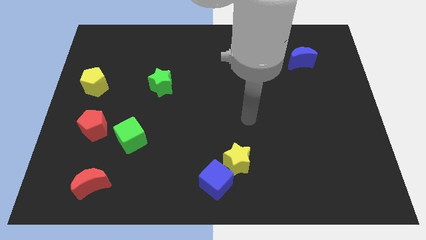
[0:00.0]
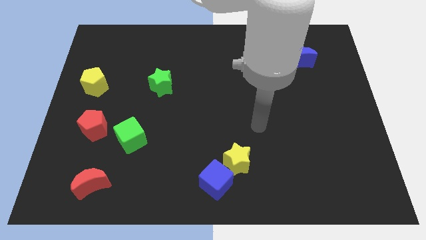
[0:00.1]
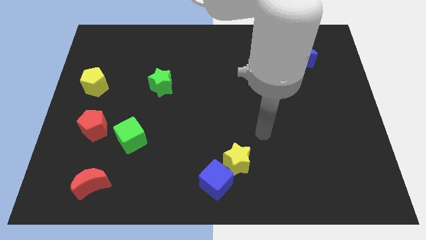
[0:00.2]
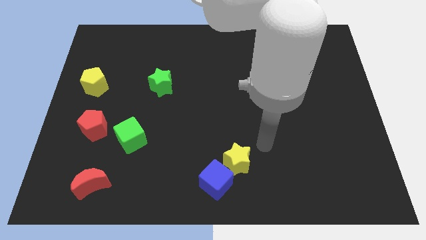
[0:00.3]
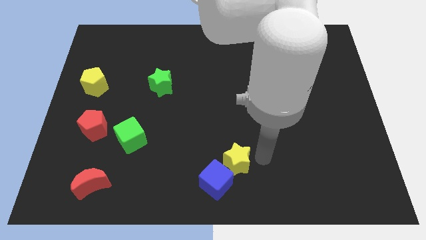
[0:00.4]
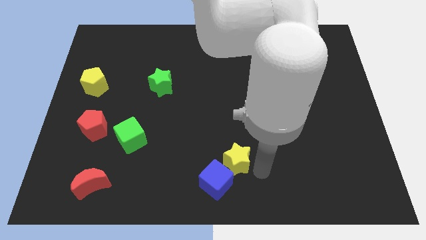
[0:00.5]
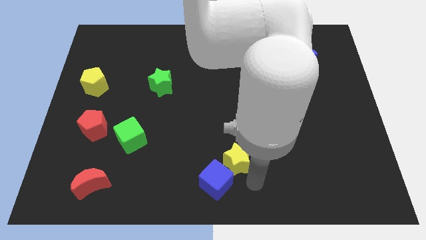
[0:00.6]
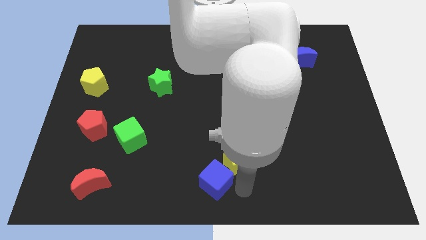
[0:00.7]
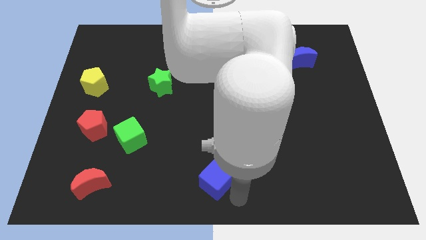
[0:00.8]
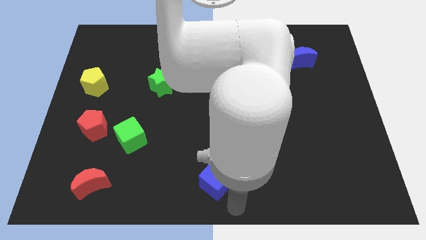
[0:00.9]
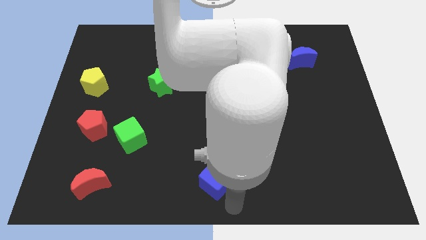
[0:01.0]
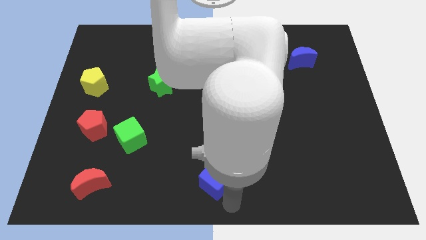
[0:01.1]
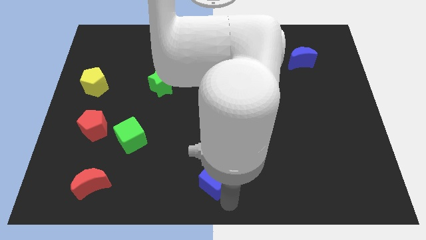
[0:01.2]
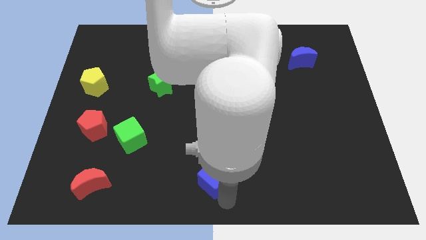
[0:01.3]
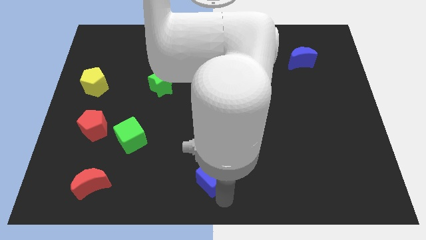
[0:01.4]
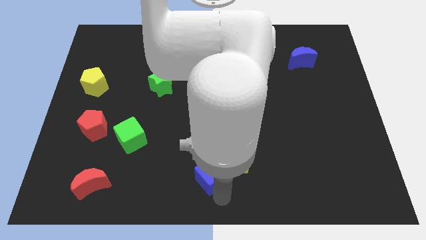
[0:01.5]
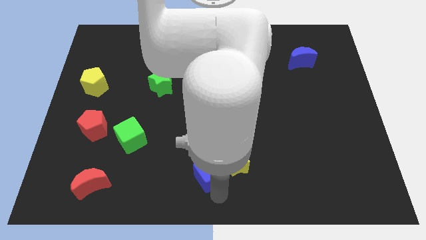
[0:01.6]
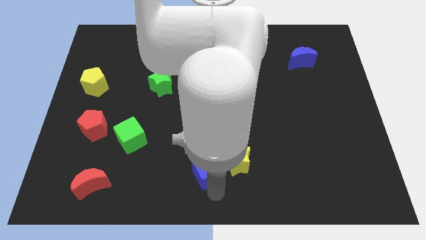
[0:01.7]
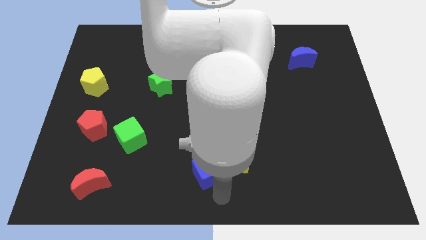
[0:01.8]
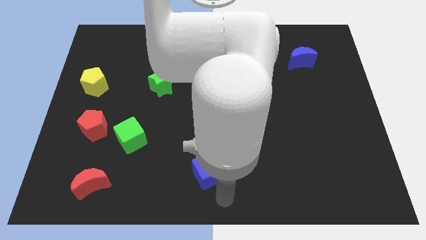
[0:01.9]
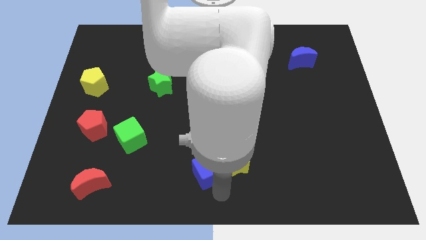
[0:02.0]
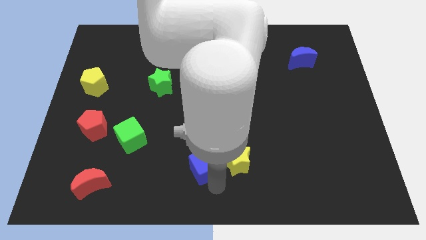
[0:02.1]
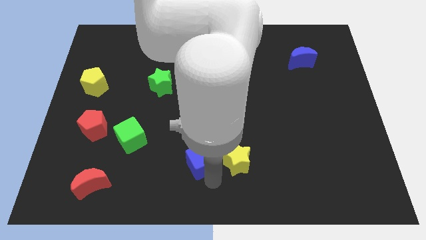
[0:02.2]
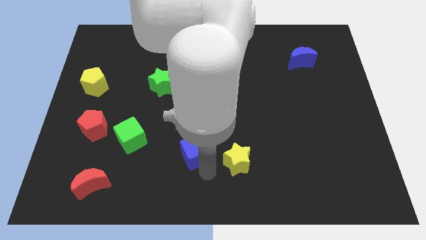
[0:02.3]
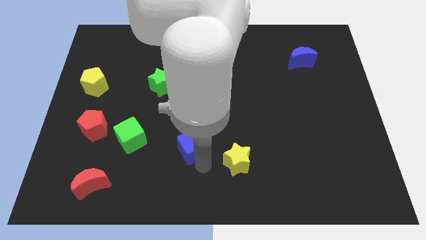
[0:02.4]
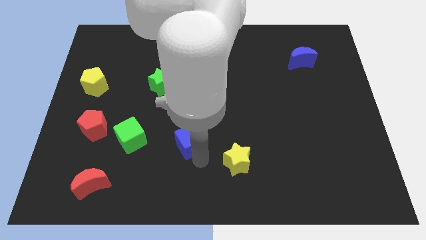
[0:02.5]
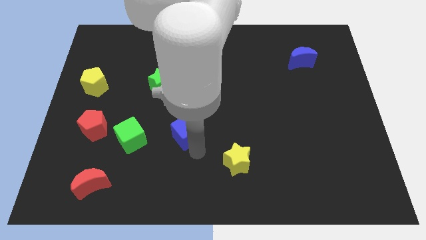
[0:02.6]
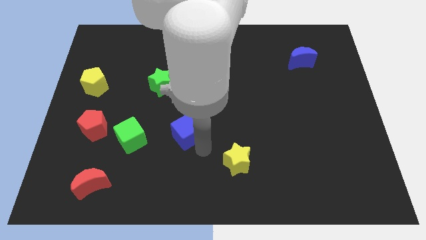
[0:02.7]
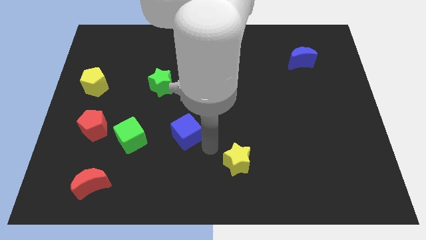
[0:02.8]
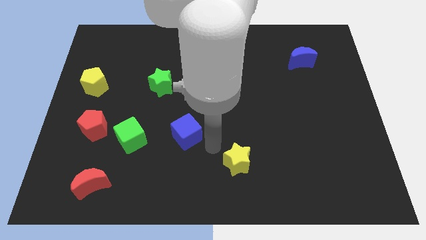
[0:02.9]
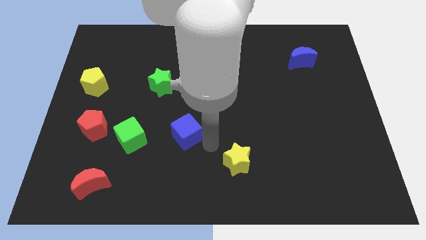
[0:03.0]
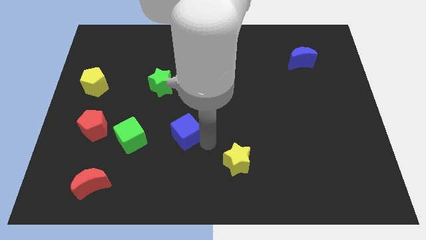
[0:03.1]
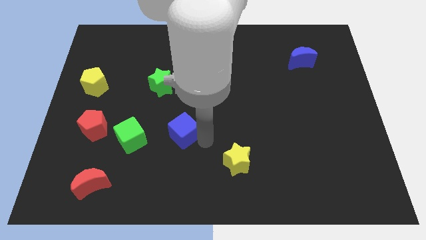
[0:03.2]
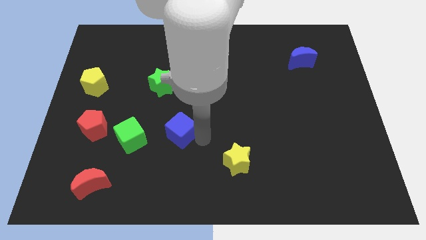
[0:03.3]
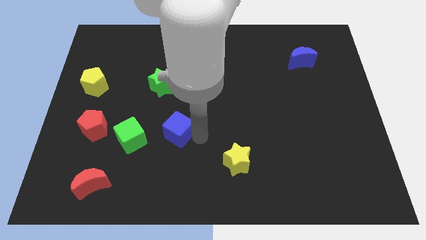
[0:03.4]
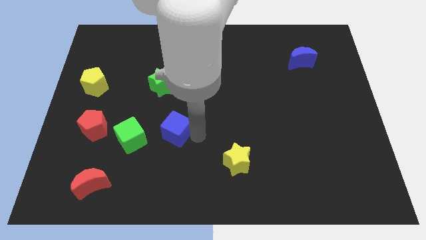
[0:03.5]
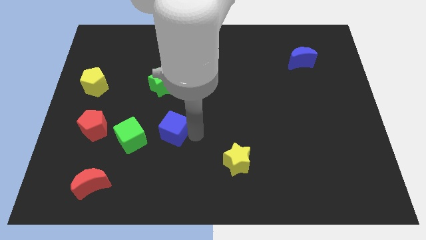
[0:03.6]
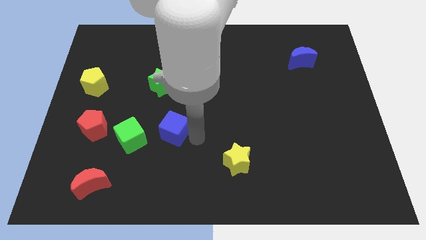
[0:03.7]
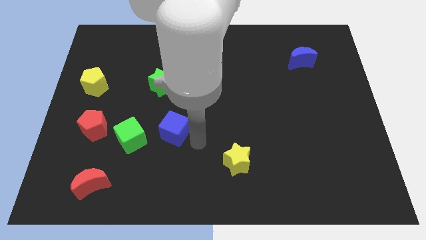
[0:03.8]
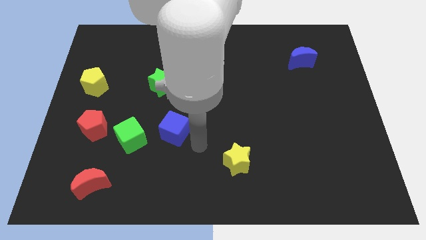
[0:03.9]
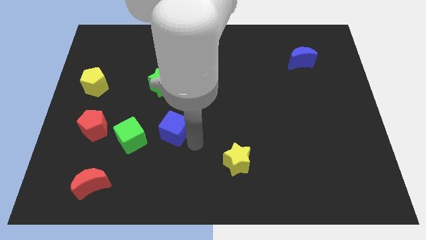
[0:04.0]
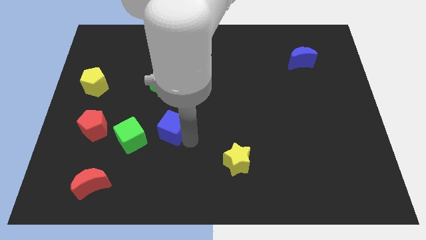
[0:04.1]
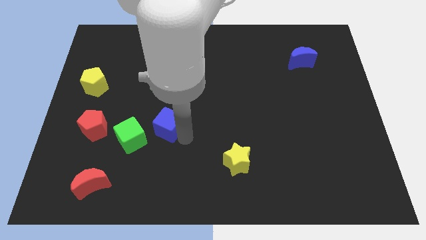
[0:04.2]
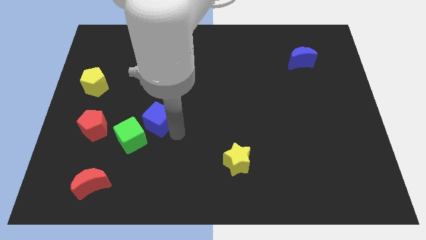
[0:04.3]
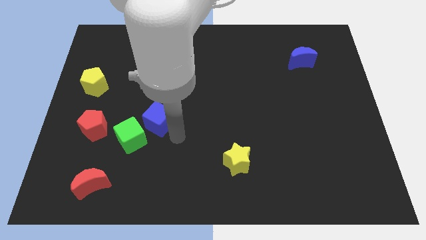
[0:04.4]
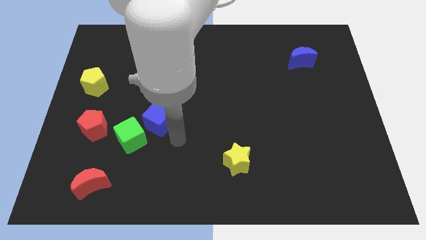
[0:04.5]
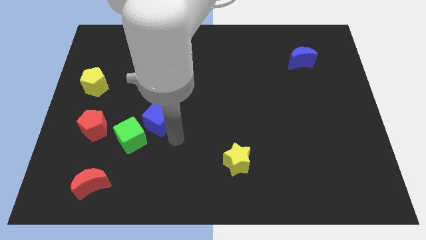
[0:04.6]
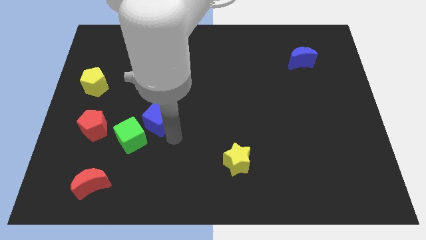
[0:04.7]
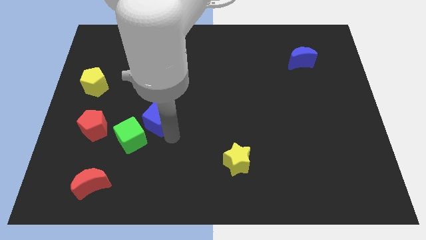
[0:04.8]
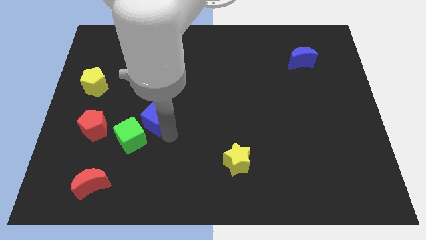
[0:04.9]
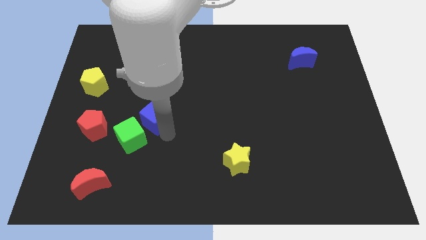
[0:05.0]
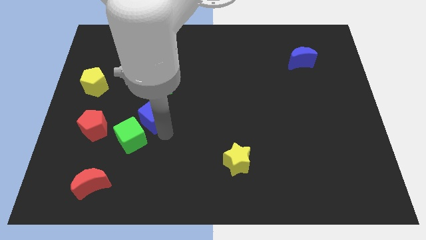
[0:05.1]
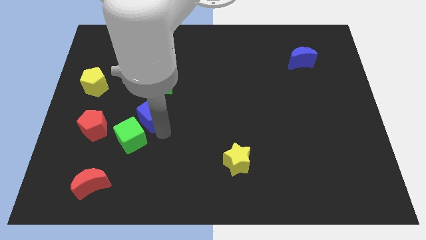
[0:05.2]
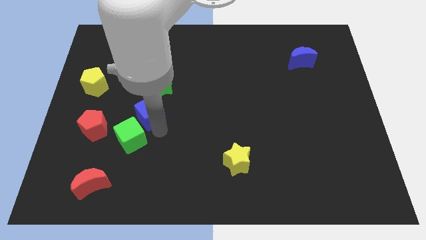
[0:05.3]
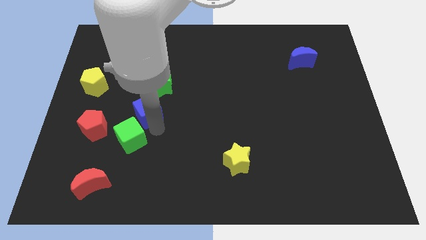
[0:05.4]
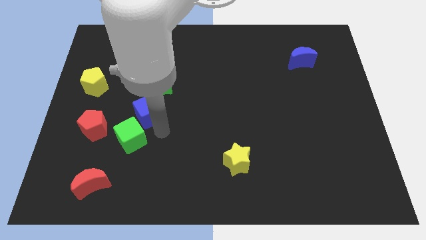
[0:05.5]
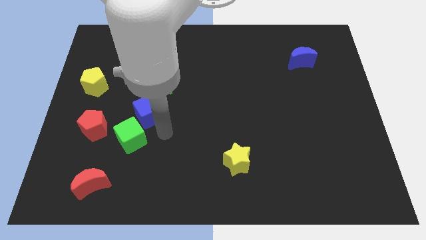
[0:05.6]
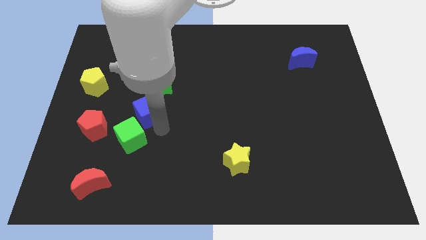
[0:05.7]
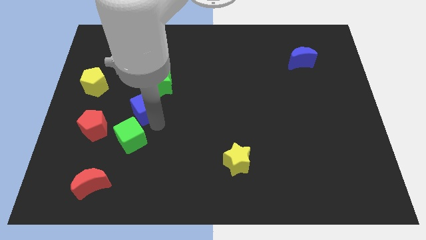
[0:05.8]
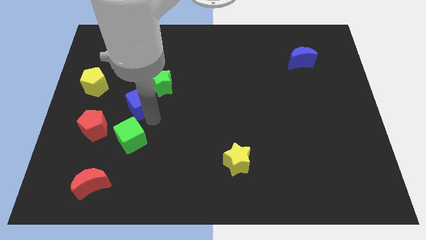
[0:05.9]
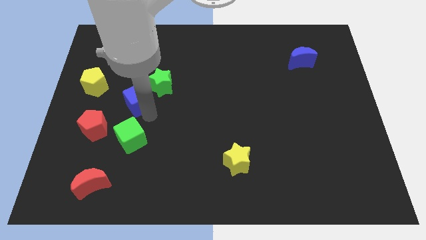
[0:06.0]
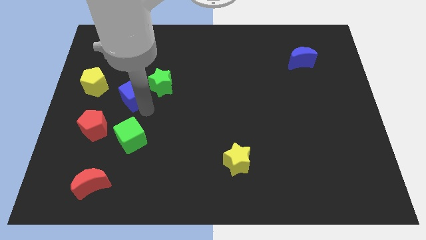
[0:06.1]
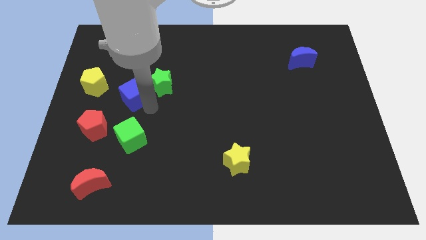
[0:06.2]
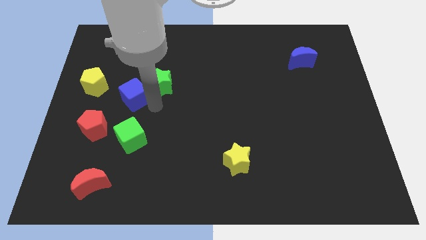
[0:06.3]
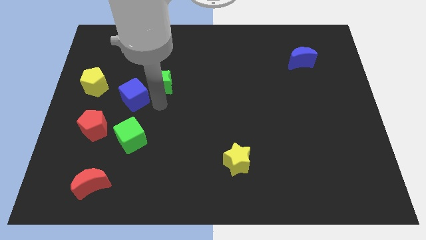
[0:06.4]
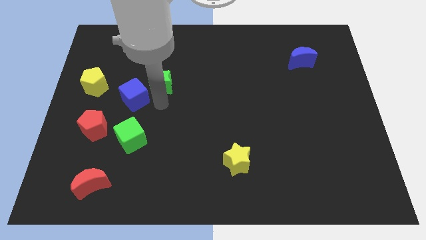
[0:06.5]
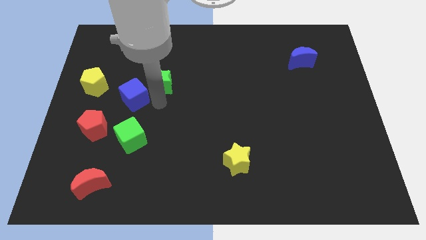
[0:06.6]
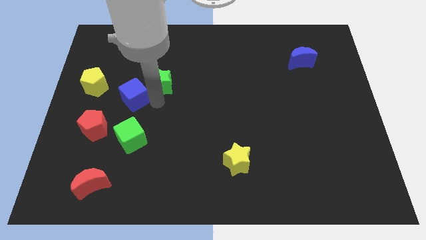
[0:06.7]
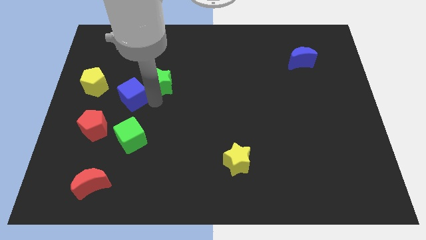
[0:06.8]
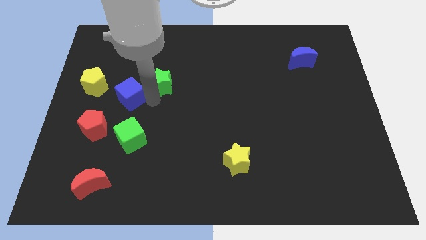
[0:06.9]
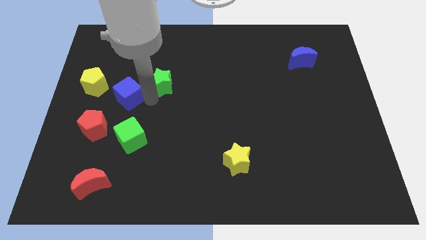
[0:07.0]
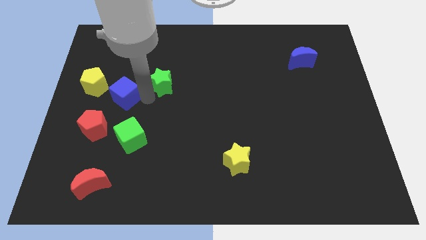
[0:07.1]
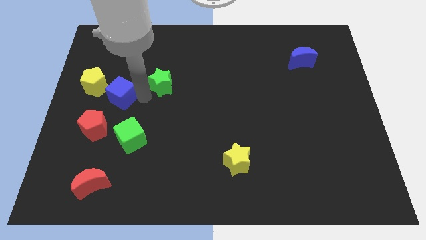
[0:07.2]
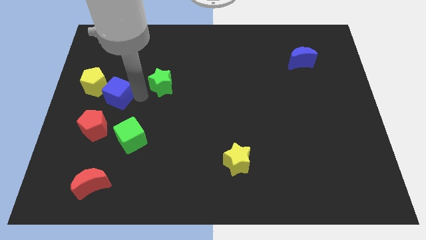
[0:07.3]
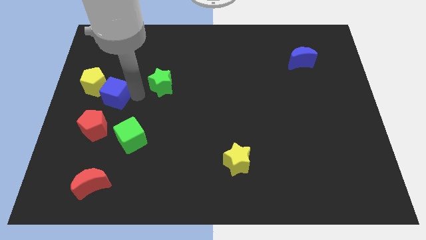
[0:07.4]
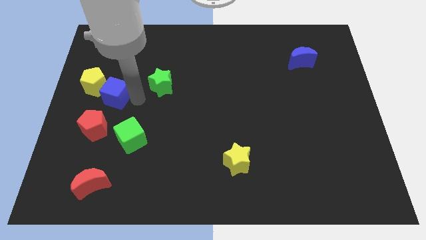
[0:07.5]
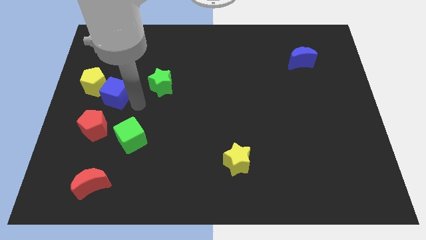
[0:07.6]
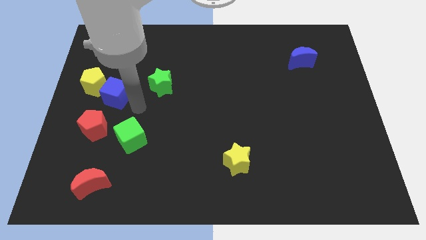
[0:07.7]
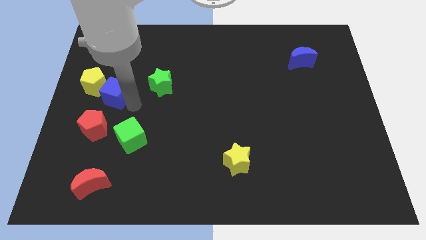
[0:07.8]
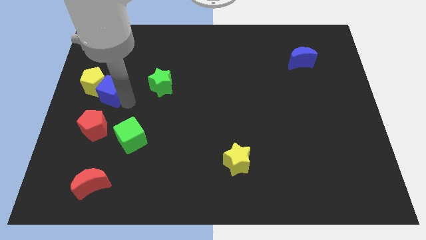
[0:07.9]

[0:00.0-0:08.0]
put the blue cube towards the yellow pentagon

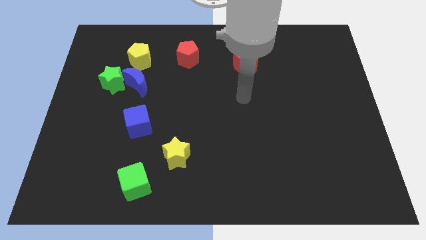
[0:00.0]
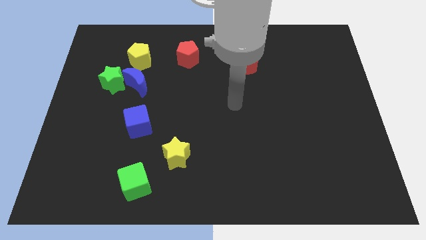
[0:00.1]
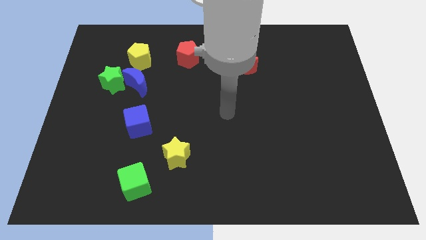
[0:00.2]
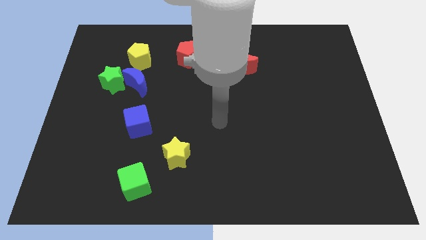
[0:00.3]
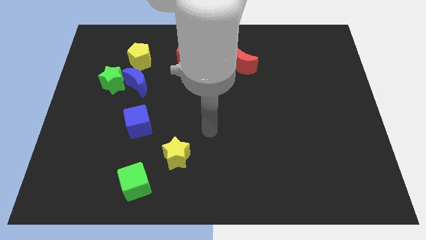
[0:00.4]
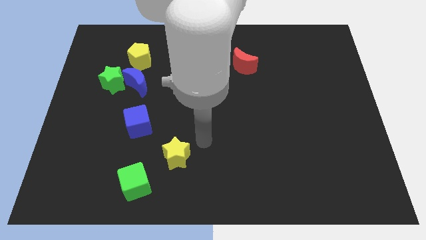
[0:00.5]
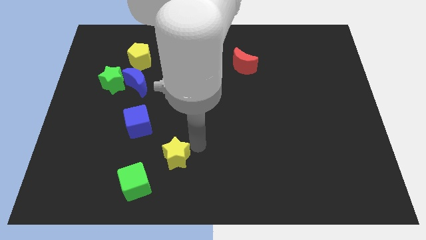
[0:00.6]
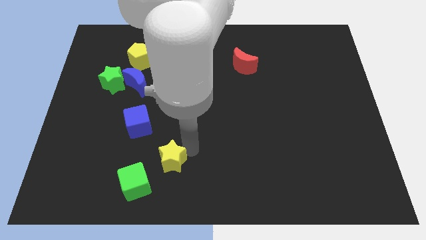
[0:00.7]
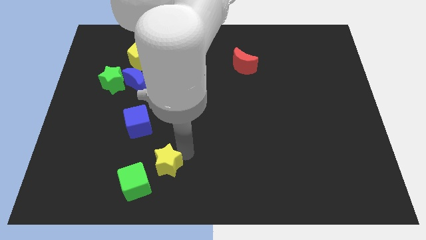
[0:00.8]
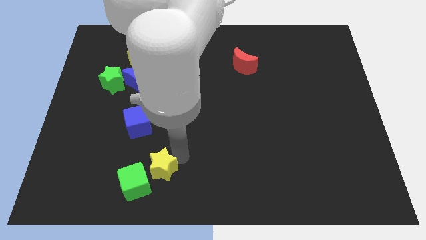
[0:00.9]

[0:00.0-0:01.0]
put the yellow star towards the green cube
